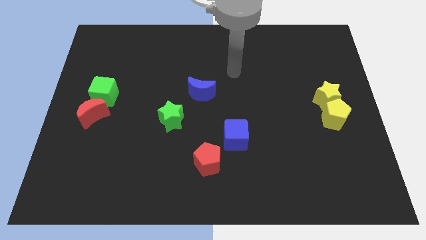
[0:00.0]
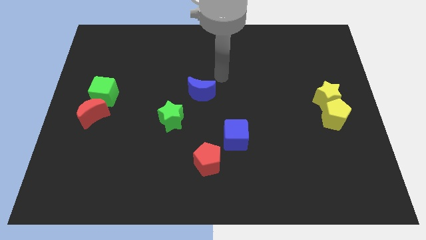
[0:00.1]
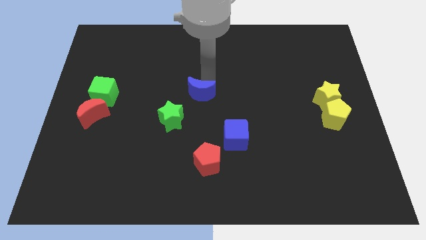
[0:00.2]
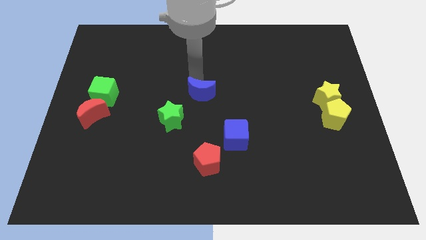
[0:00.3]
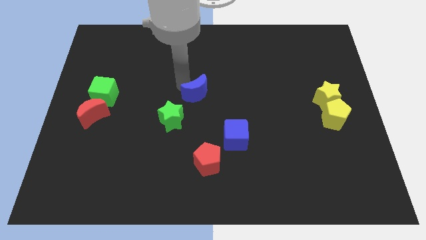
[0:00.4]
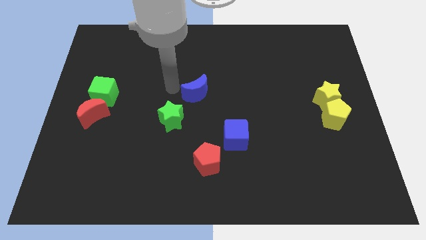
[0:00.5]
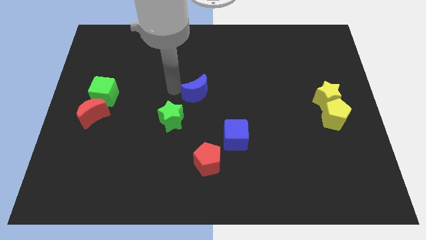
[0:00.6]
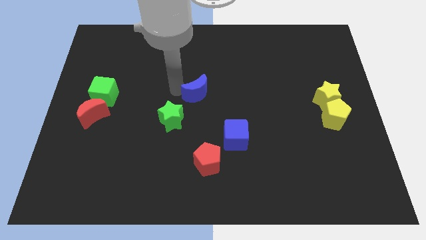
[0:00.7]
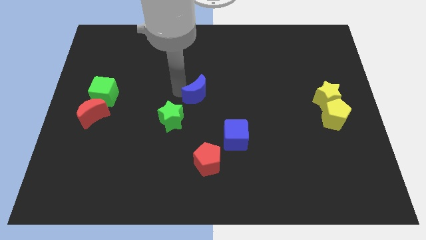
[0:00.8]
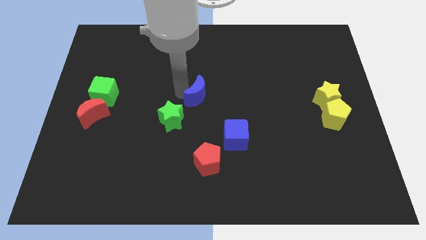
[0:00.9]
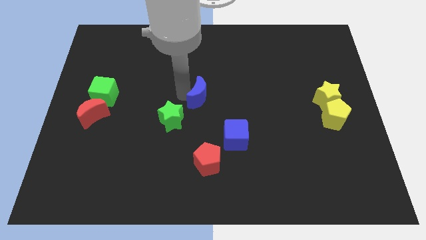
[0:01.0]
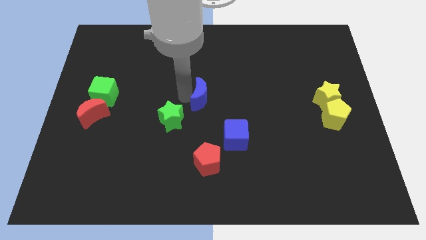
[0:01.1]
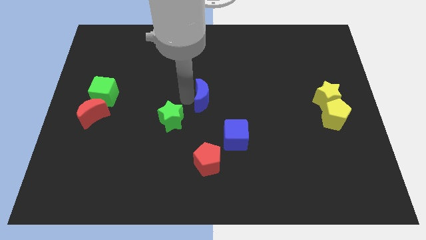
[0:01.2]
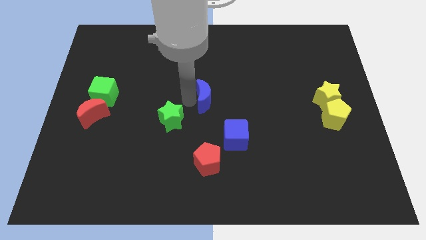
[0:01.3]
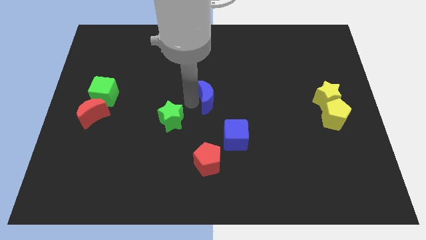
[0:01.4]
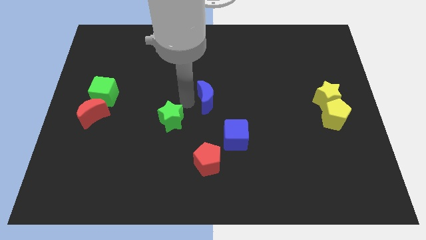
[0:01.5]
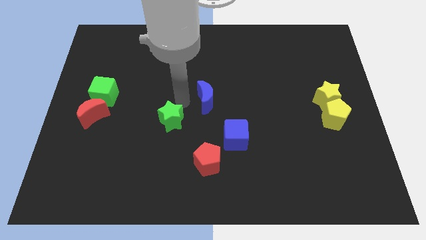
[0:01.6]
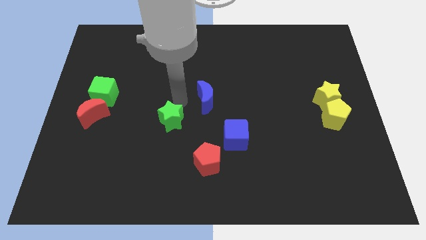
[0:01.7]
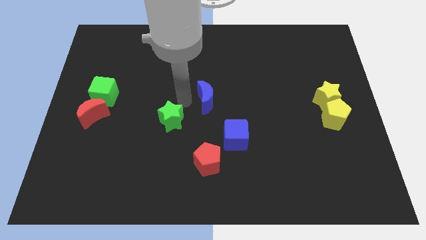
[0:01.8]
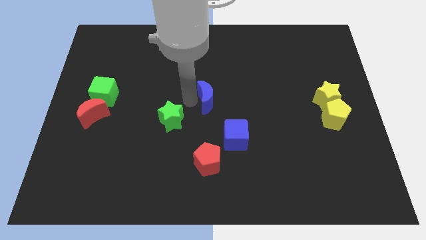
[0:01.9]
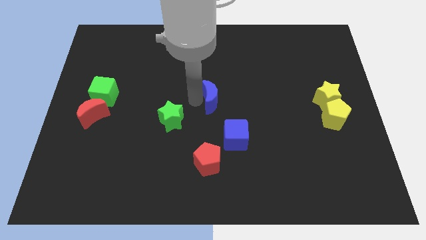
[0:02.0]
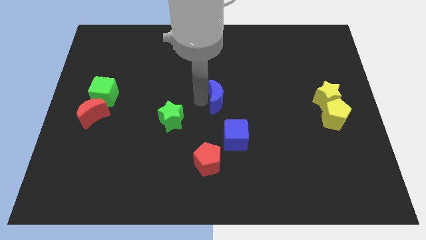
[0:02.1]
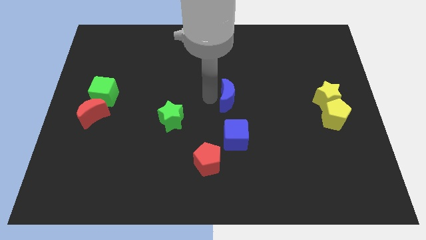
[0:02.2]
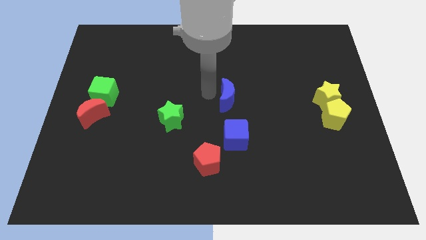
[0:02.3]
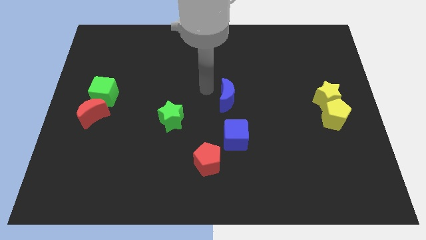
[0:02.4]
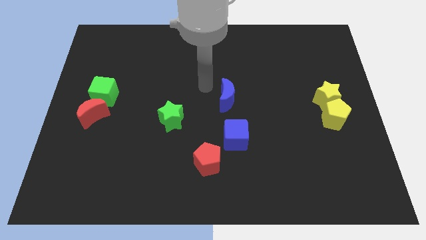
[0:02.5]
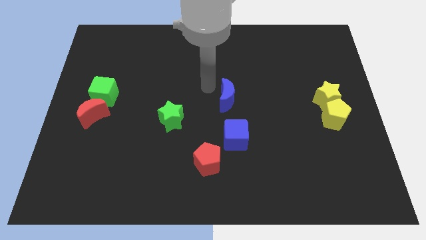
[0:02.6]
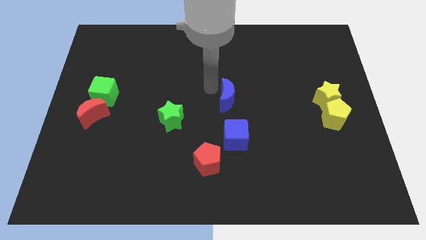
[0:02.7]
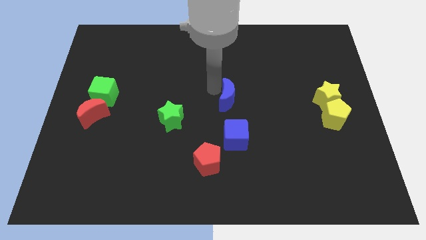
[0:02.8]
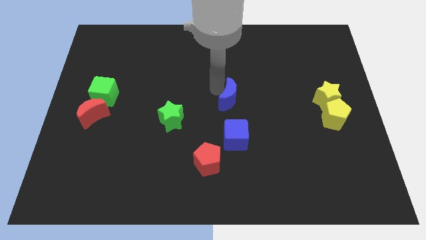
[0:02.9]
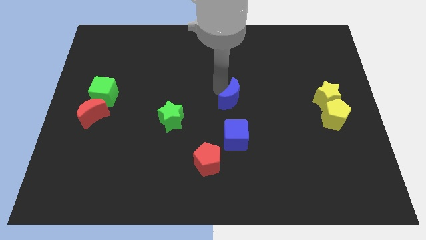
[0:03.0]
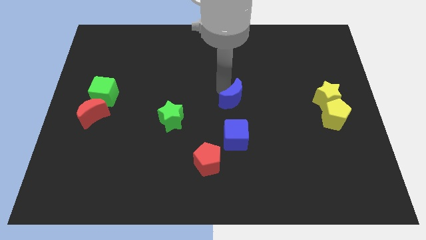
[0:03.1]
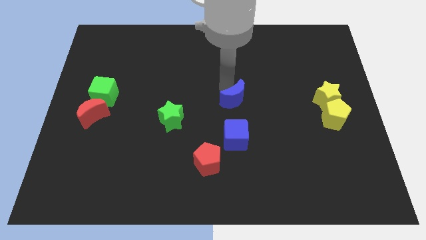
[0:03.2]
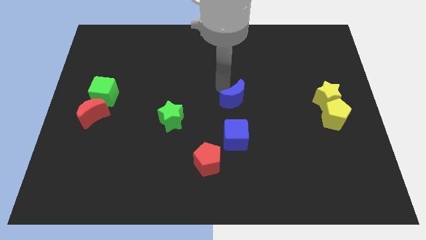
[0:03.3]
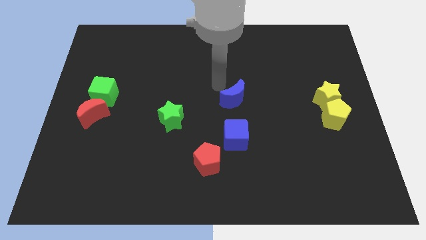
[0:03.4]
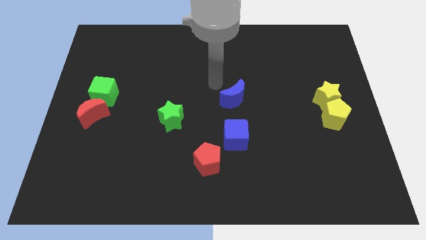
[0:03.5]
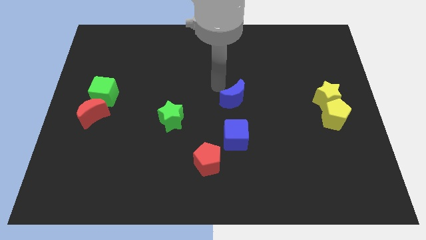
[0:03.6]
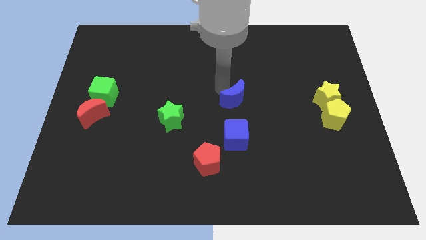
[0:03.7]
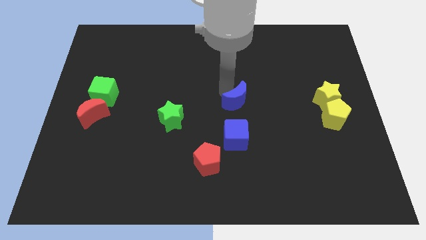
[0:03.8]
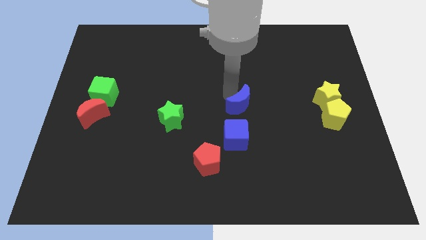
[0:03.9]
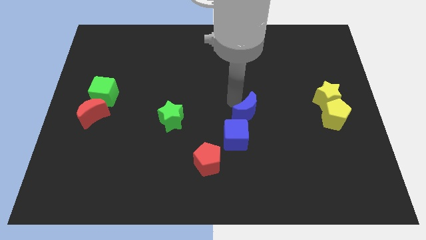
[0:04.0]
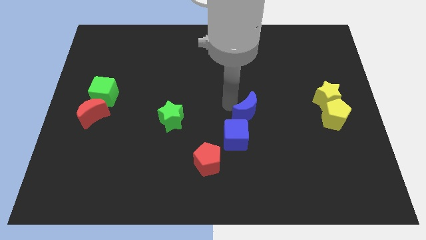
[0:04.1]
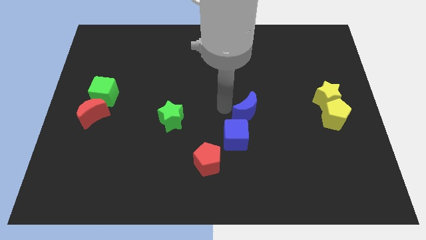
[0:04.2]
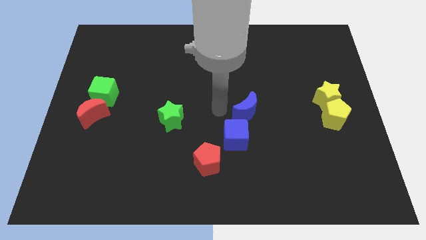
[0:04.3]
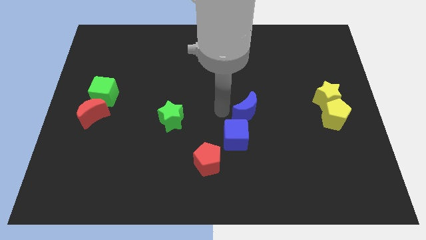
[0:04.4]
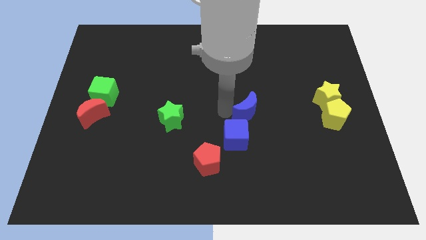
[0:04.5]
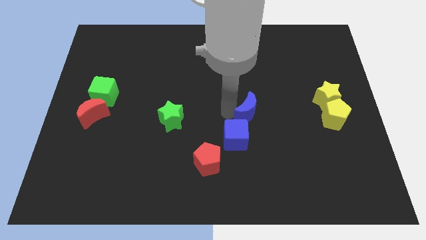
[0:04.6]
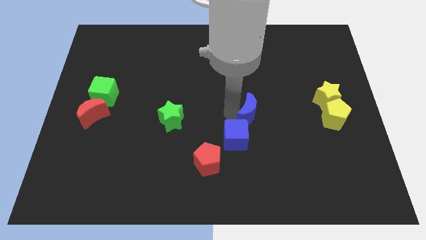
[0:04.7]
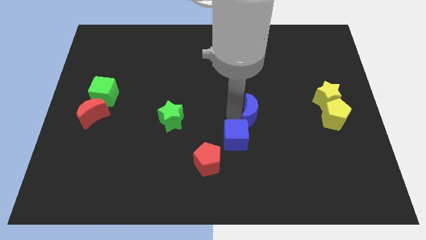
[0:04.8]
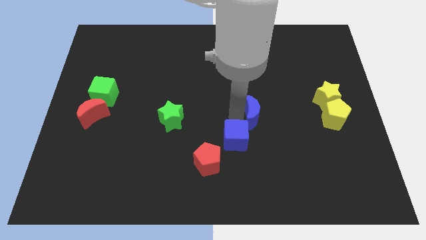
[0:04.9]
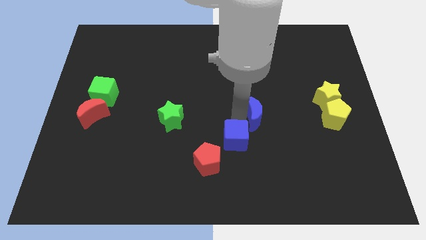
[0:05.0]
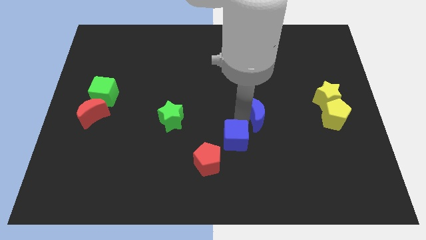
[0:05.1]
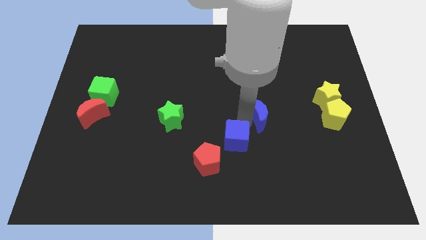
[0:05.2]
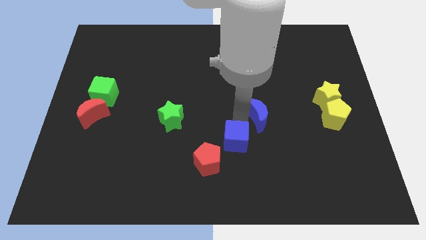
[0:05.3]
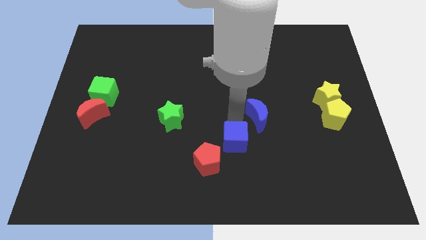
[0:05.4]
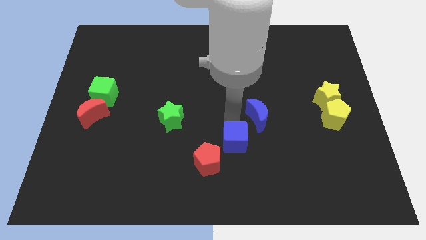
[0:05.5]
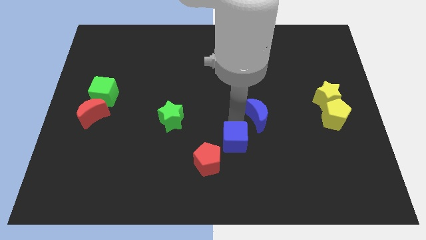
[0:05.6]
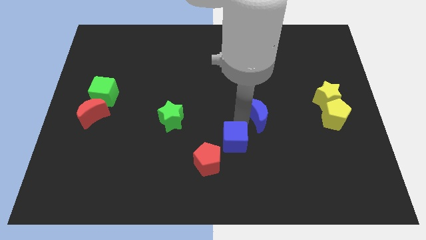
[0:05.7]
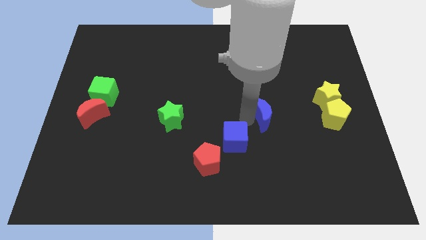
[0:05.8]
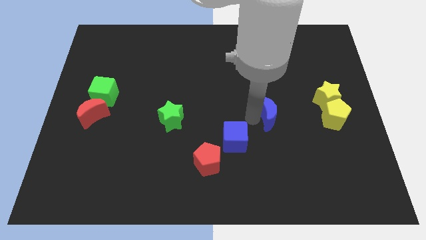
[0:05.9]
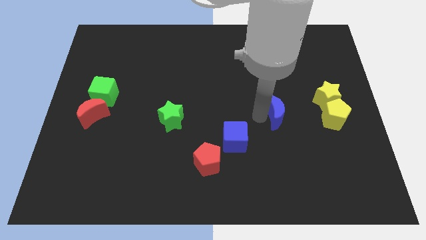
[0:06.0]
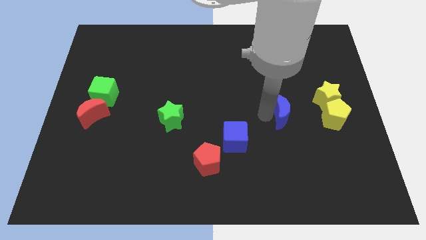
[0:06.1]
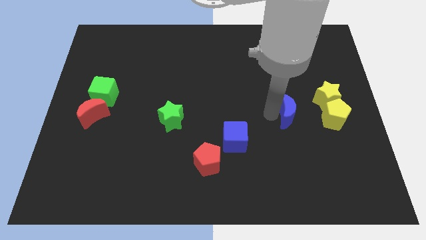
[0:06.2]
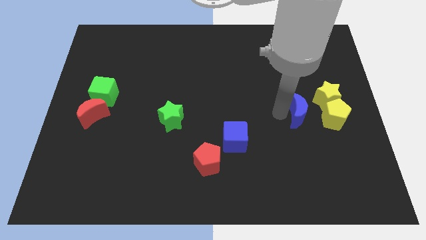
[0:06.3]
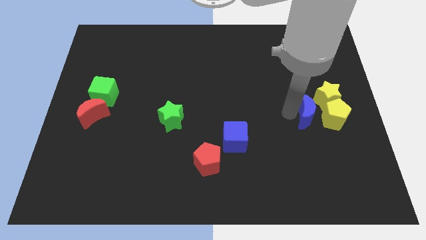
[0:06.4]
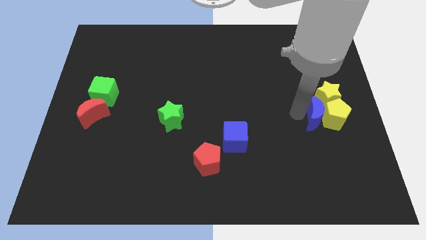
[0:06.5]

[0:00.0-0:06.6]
push the blue moon next to the yellow pentagon

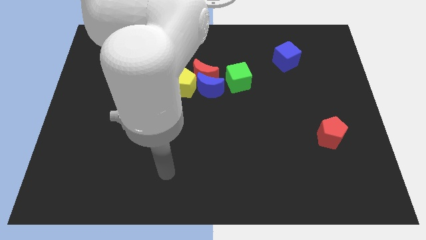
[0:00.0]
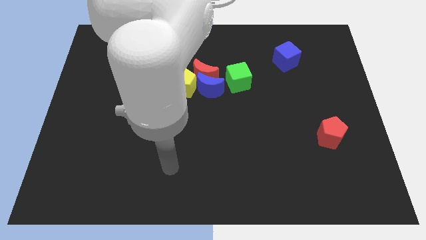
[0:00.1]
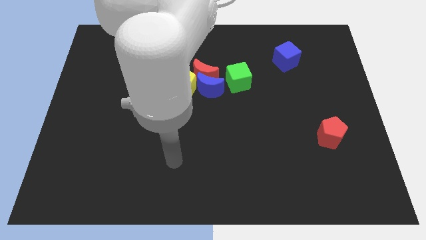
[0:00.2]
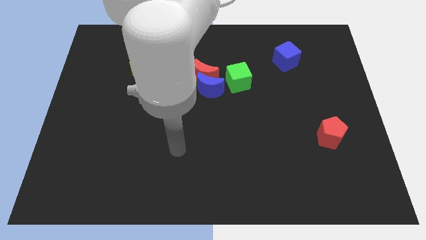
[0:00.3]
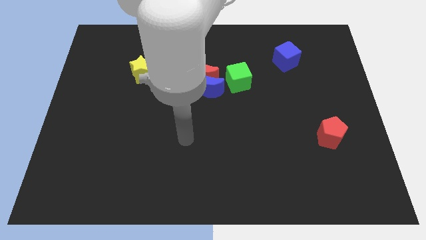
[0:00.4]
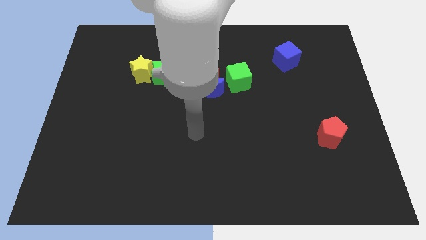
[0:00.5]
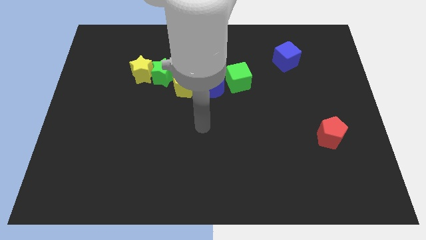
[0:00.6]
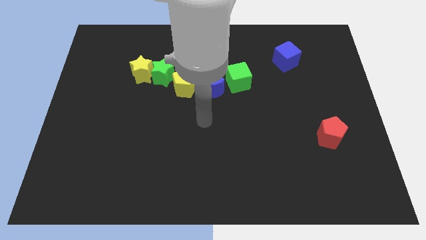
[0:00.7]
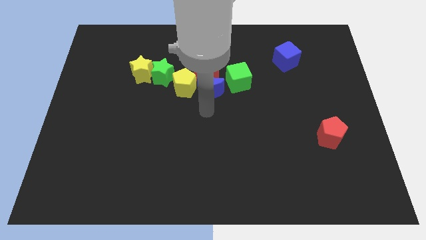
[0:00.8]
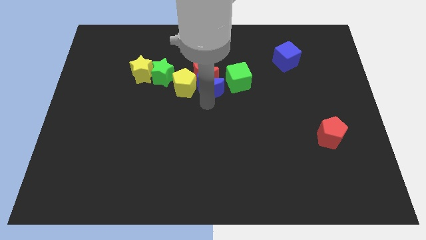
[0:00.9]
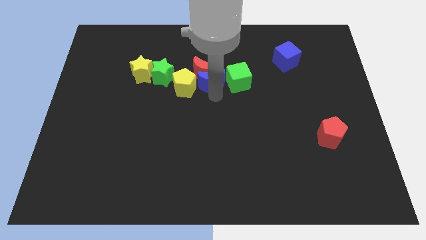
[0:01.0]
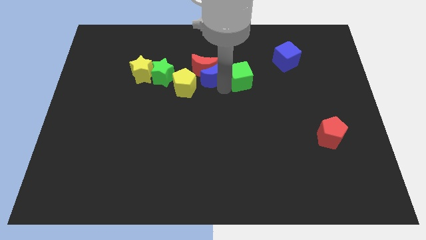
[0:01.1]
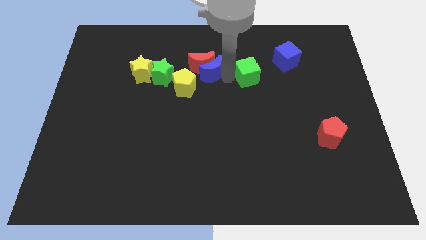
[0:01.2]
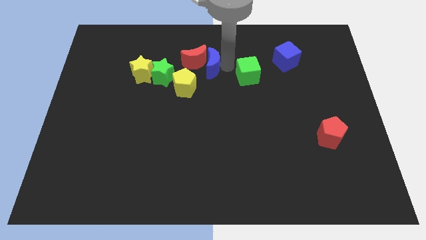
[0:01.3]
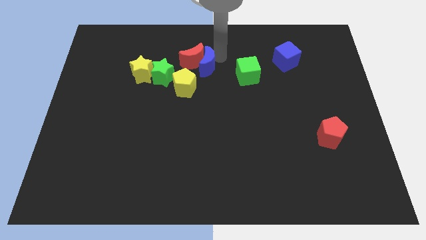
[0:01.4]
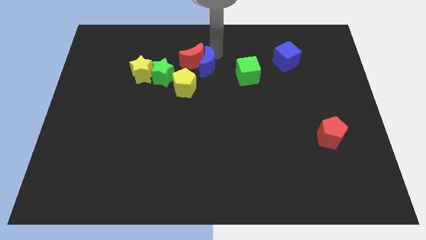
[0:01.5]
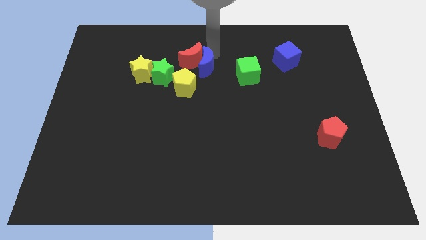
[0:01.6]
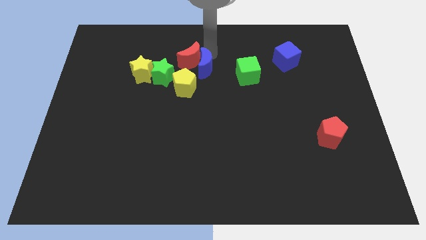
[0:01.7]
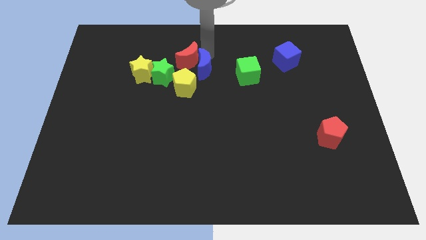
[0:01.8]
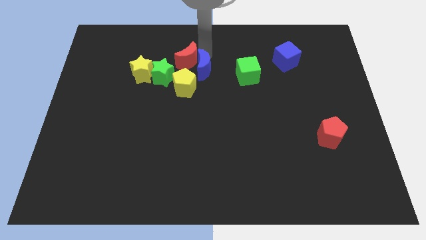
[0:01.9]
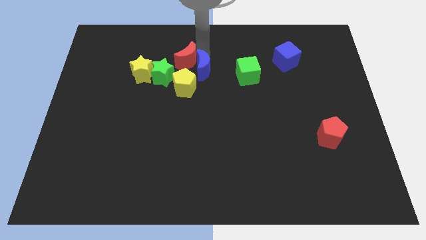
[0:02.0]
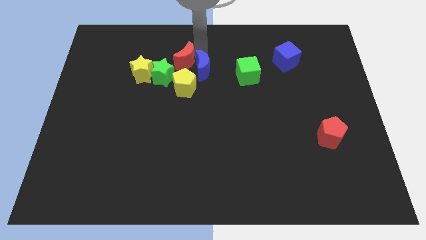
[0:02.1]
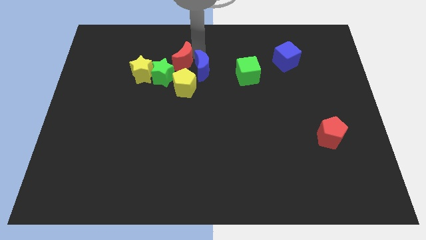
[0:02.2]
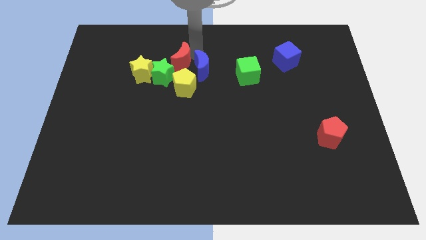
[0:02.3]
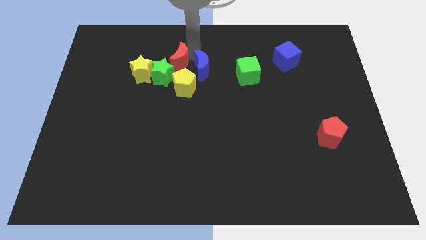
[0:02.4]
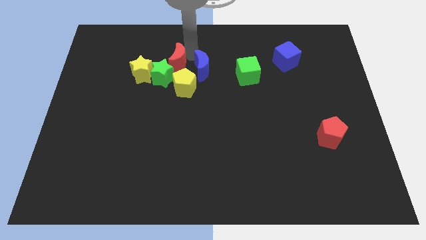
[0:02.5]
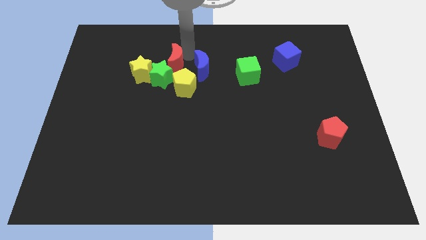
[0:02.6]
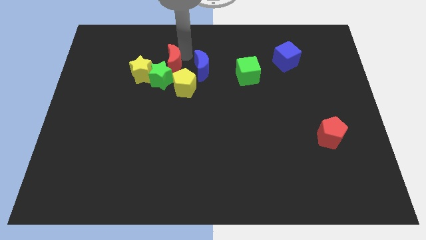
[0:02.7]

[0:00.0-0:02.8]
slide the red moon next to the green star
